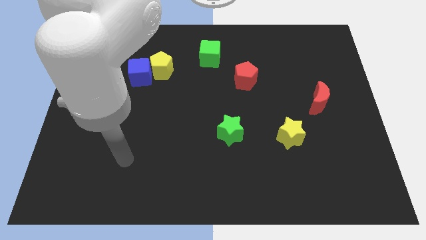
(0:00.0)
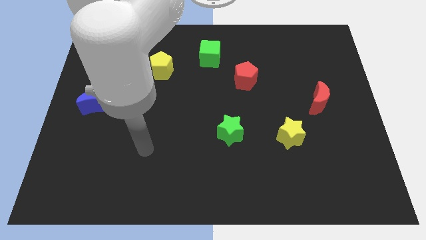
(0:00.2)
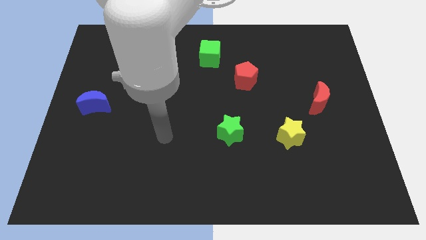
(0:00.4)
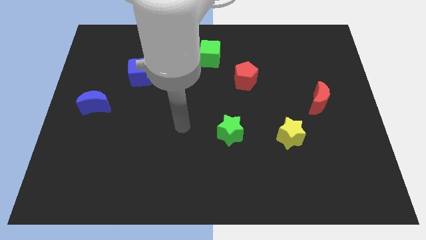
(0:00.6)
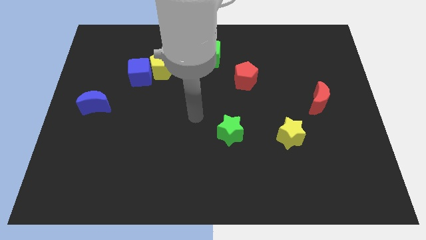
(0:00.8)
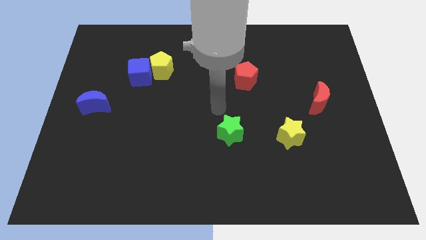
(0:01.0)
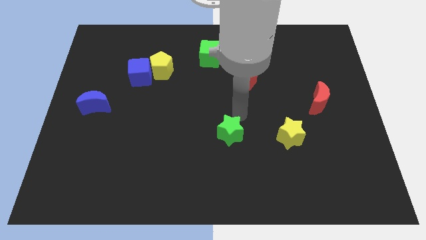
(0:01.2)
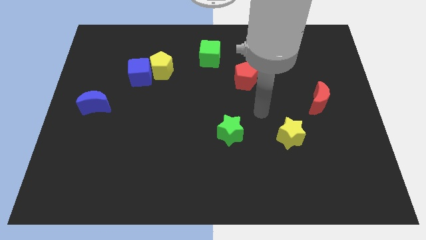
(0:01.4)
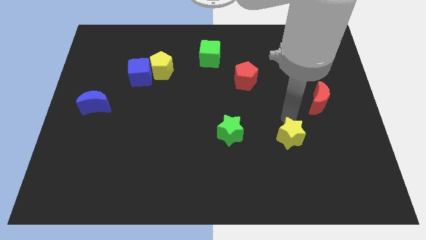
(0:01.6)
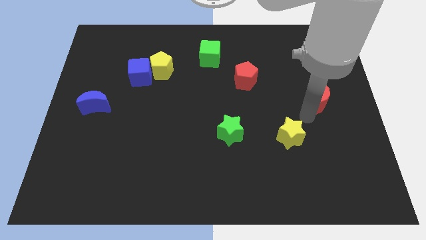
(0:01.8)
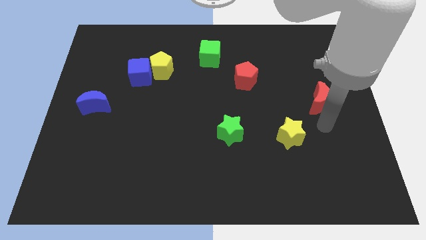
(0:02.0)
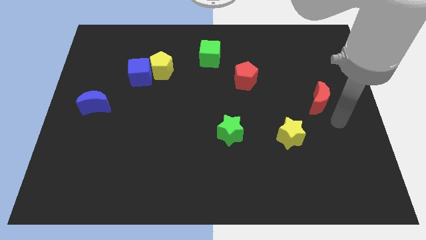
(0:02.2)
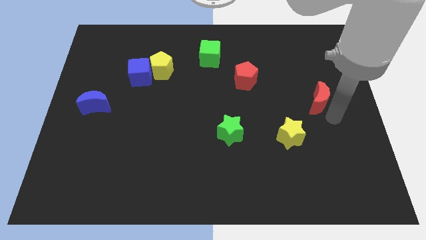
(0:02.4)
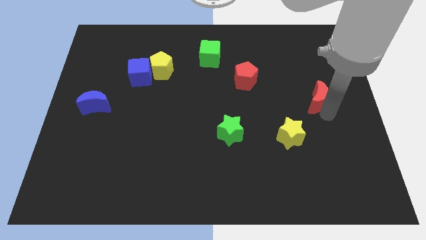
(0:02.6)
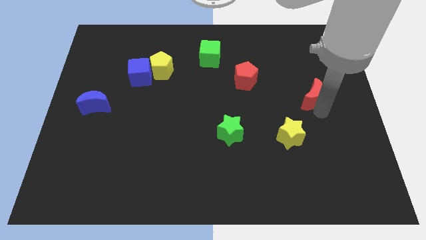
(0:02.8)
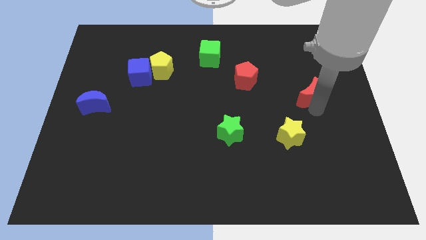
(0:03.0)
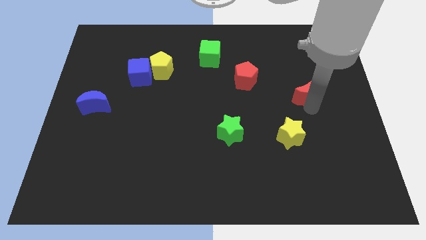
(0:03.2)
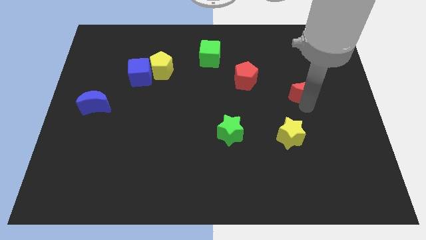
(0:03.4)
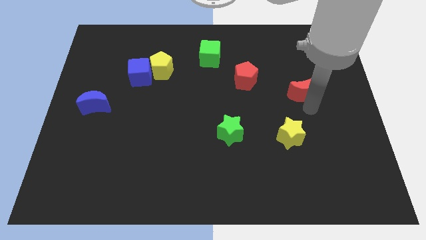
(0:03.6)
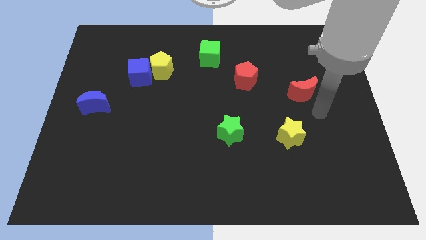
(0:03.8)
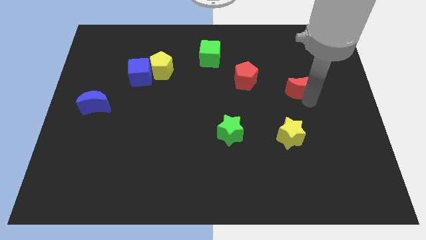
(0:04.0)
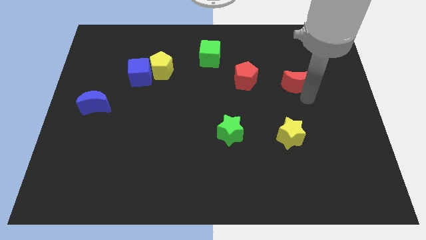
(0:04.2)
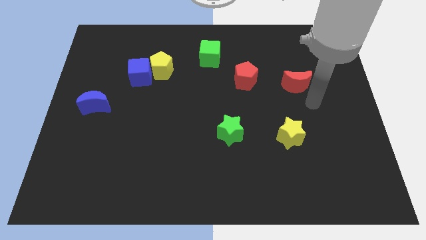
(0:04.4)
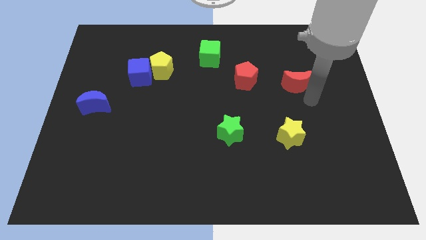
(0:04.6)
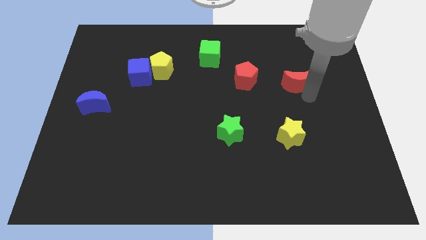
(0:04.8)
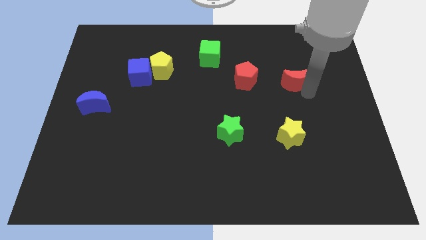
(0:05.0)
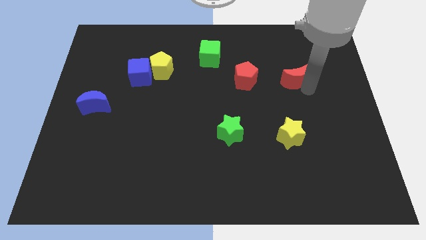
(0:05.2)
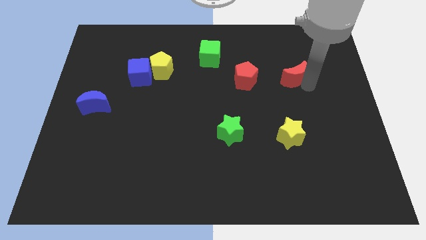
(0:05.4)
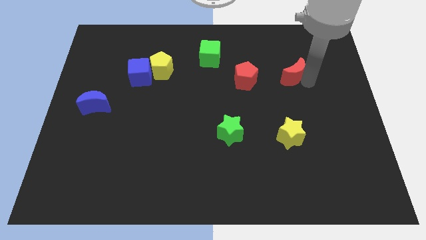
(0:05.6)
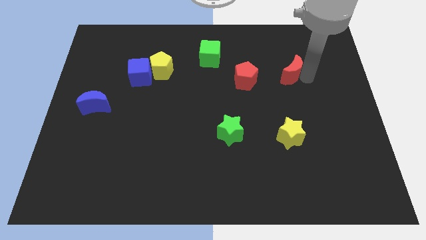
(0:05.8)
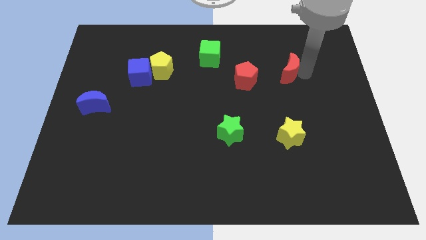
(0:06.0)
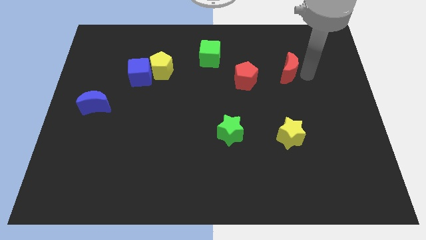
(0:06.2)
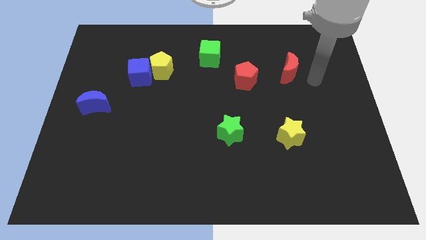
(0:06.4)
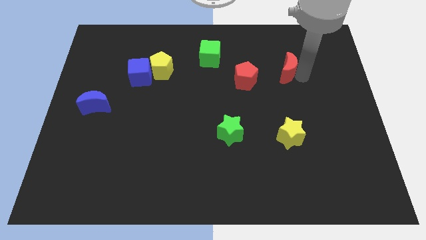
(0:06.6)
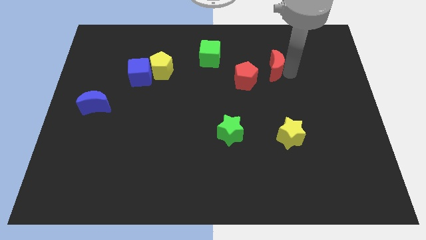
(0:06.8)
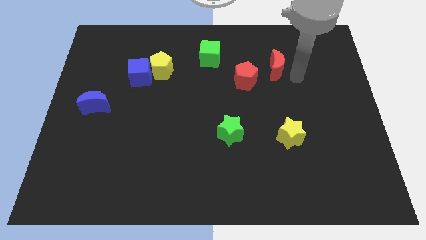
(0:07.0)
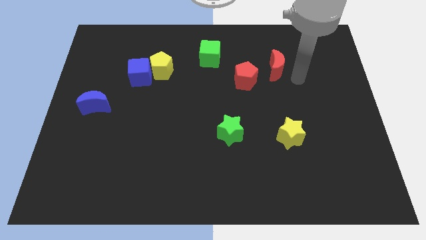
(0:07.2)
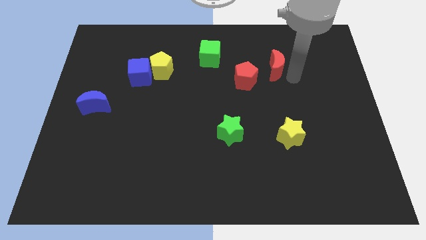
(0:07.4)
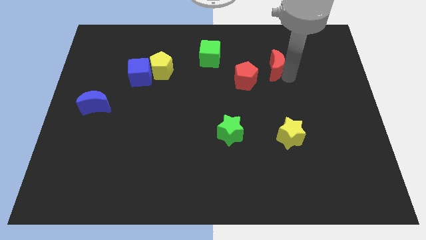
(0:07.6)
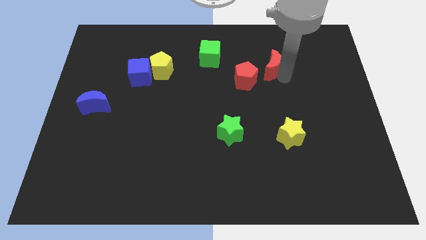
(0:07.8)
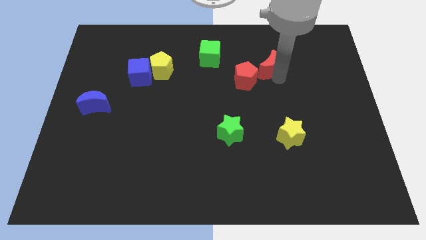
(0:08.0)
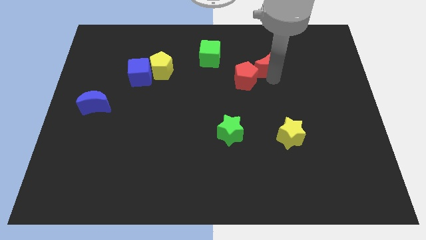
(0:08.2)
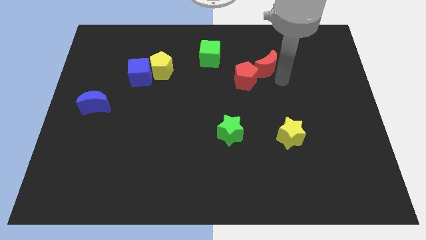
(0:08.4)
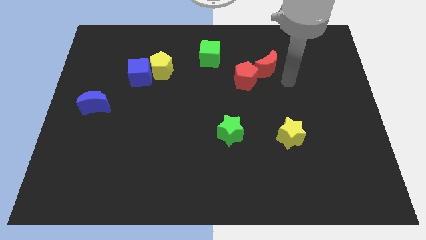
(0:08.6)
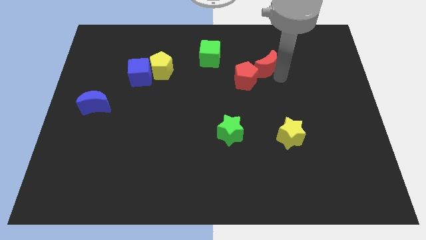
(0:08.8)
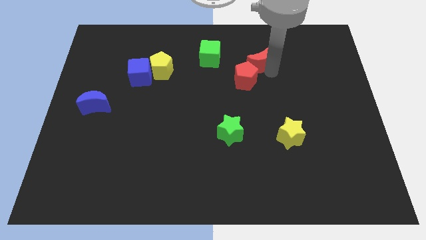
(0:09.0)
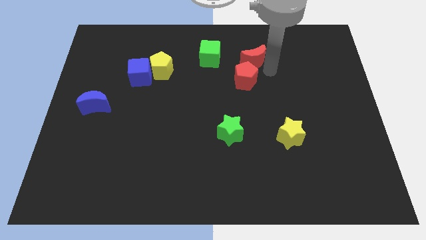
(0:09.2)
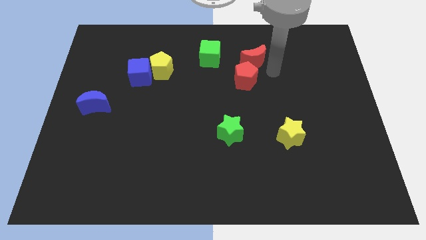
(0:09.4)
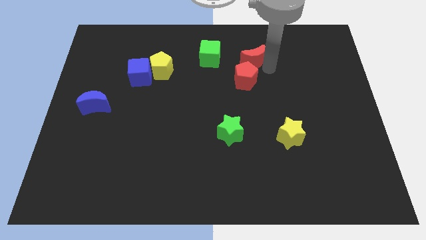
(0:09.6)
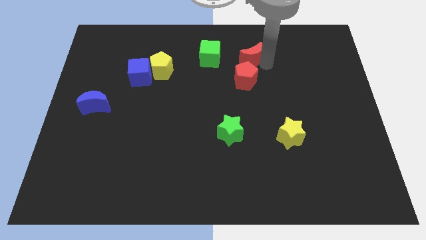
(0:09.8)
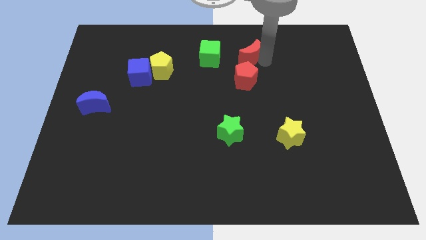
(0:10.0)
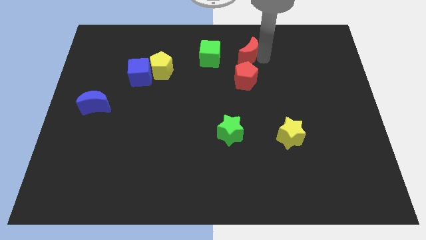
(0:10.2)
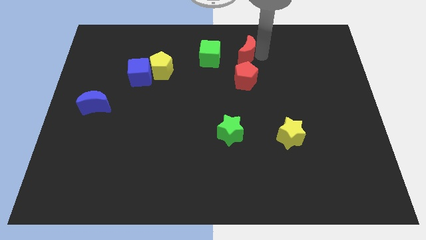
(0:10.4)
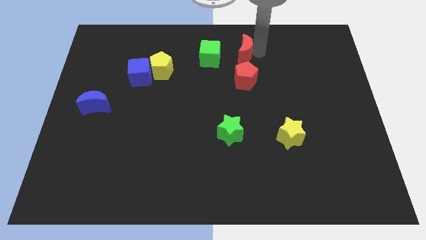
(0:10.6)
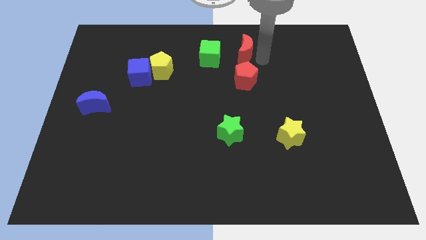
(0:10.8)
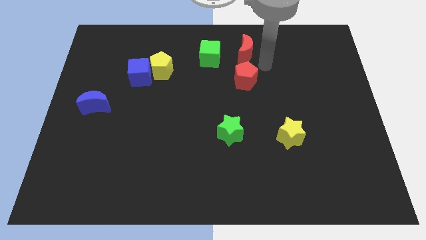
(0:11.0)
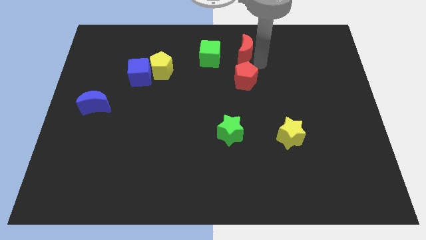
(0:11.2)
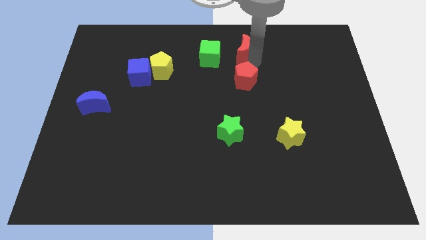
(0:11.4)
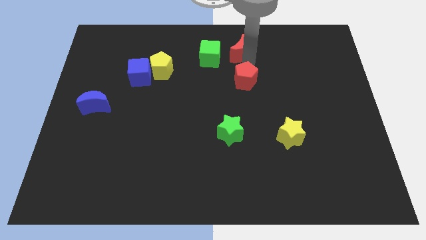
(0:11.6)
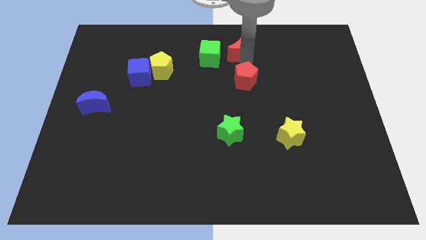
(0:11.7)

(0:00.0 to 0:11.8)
slide the red moon to the top side
